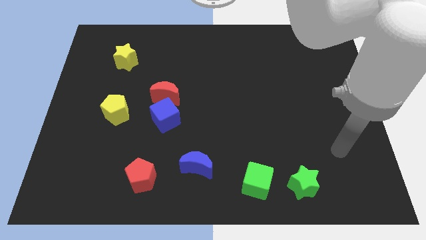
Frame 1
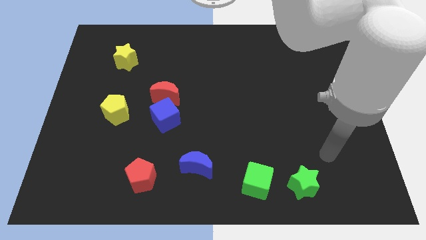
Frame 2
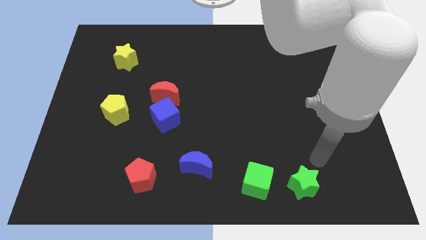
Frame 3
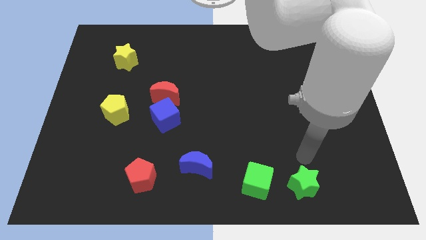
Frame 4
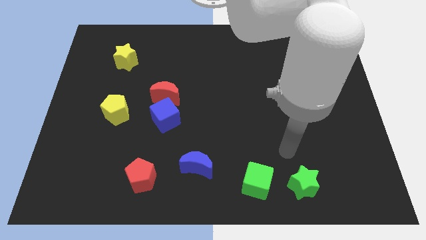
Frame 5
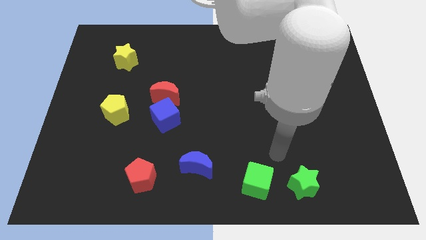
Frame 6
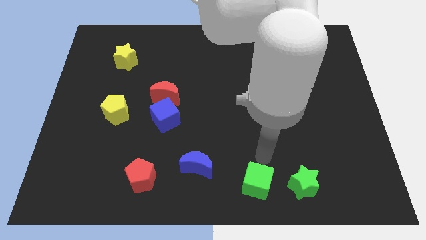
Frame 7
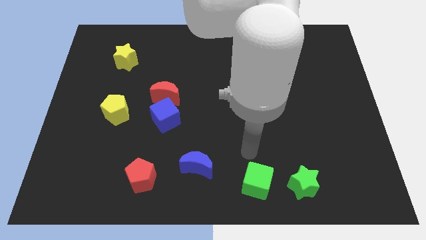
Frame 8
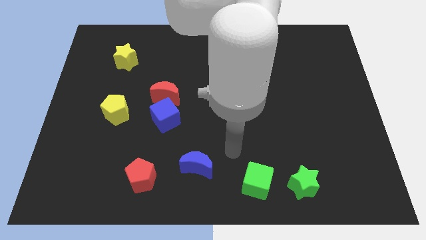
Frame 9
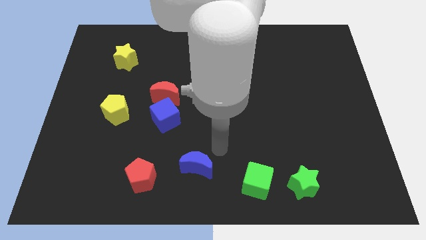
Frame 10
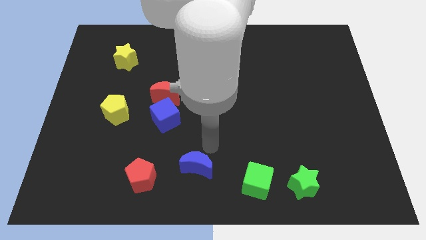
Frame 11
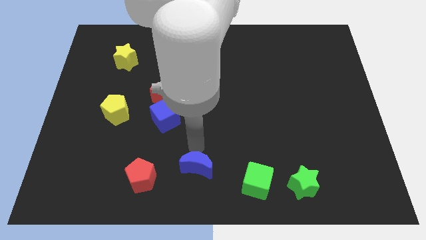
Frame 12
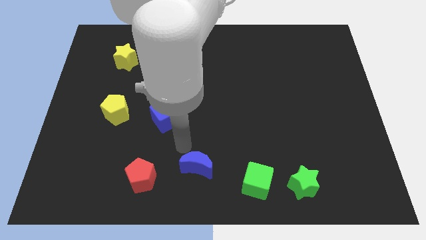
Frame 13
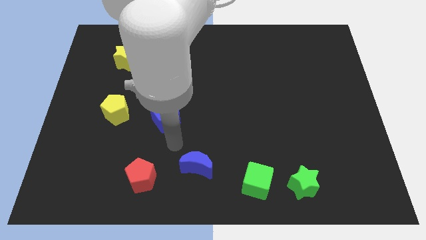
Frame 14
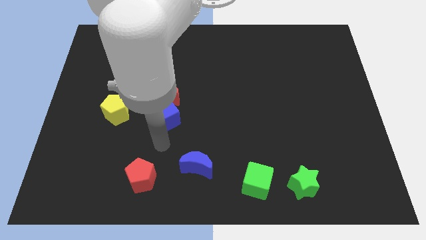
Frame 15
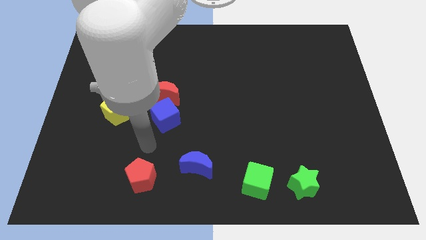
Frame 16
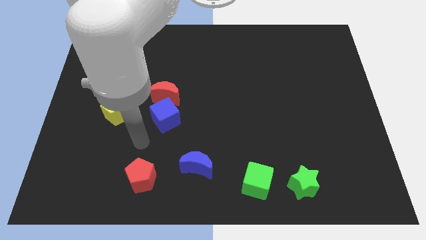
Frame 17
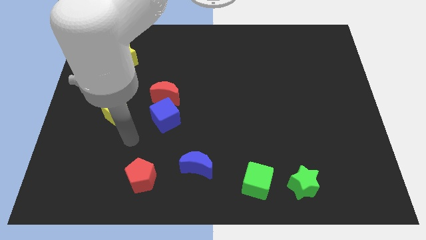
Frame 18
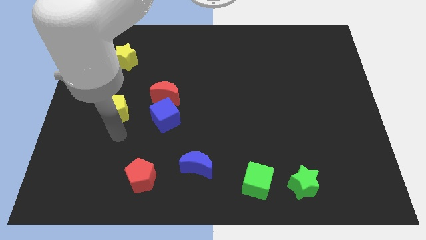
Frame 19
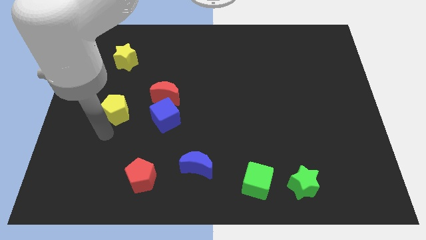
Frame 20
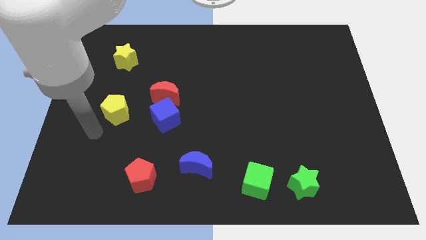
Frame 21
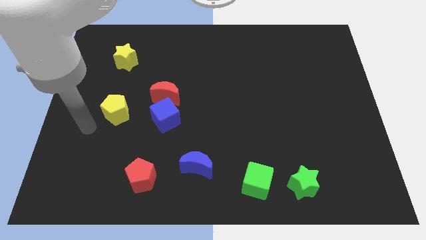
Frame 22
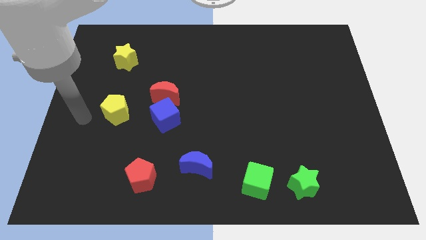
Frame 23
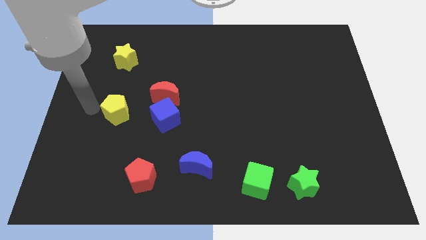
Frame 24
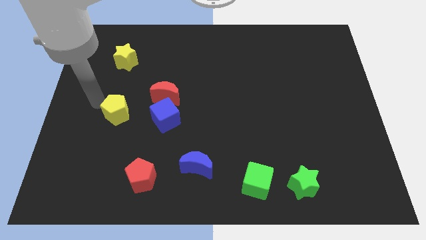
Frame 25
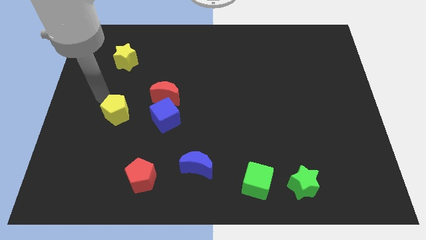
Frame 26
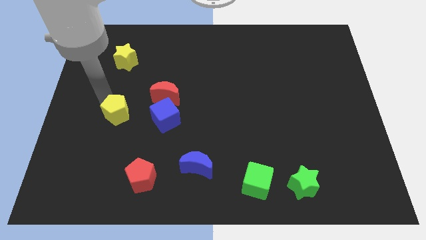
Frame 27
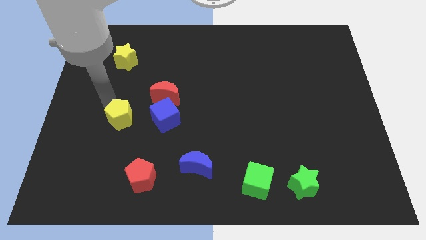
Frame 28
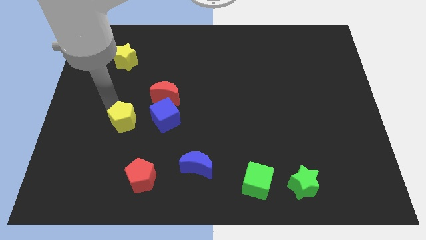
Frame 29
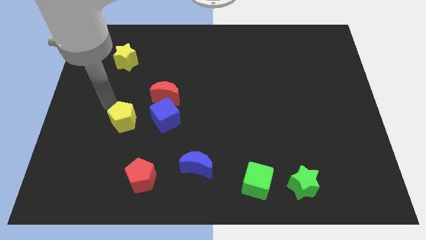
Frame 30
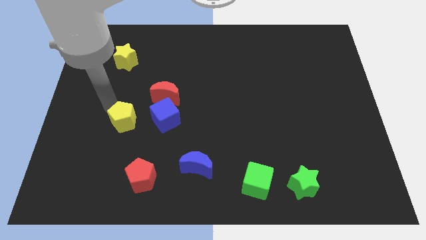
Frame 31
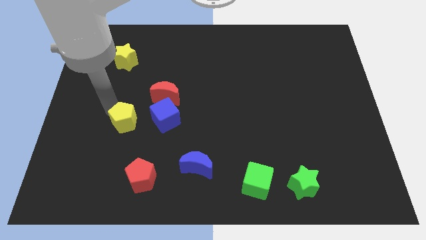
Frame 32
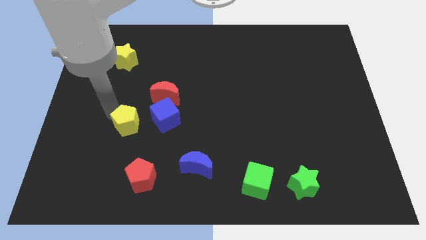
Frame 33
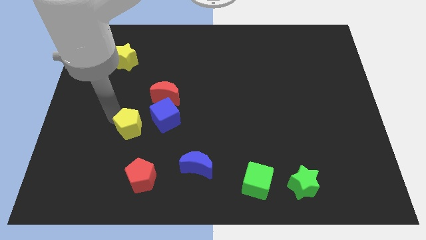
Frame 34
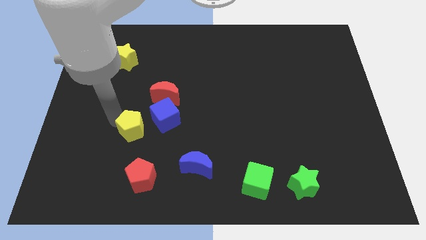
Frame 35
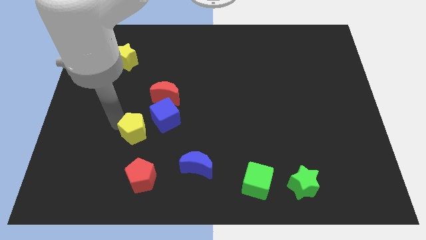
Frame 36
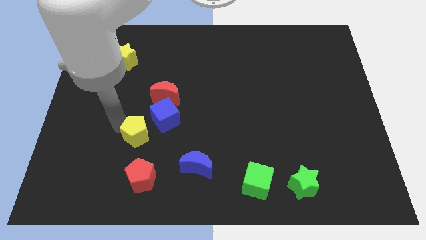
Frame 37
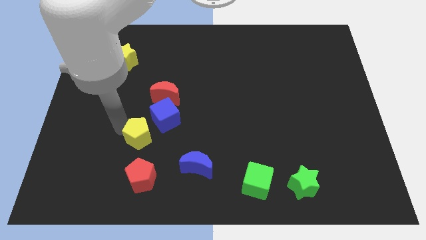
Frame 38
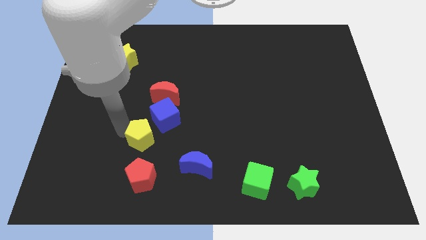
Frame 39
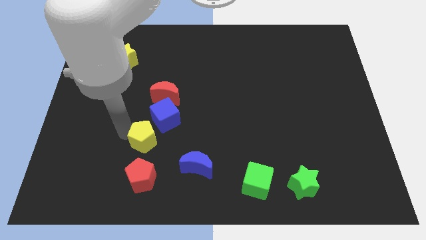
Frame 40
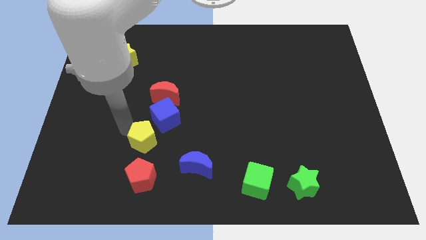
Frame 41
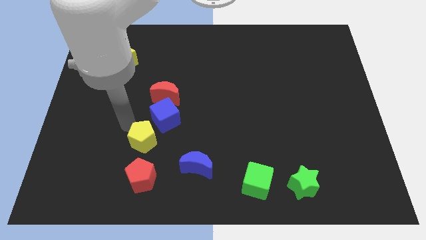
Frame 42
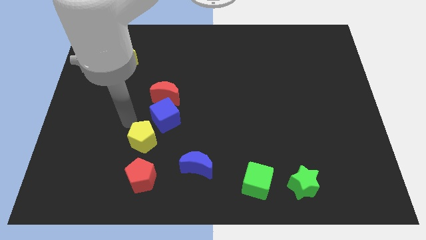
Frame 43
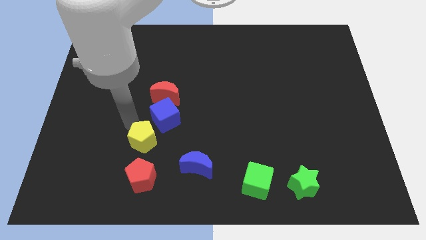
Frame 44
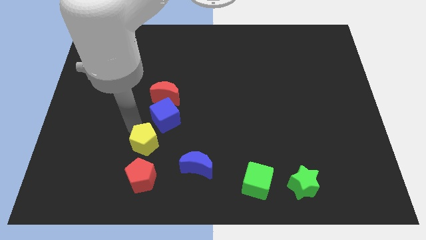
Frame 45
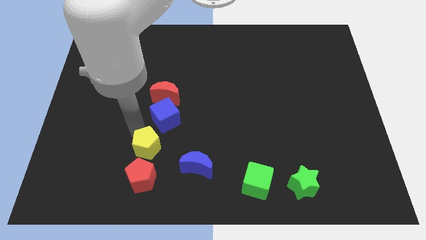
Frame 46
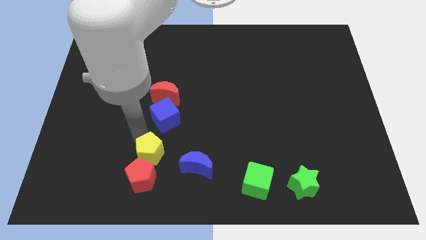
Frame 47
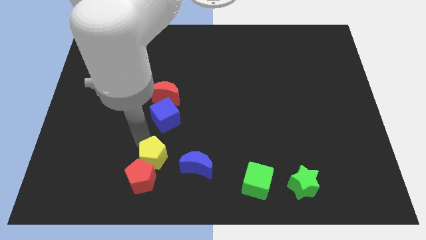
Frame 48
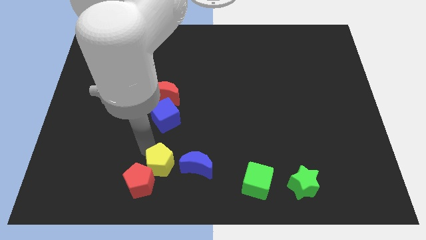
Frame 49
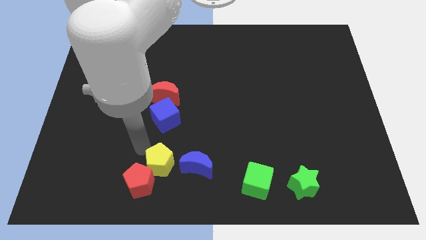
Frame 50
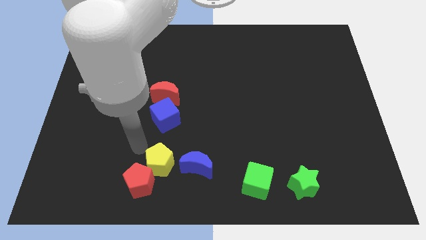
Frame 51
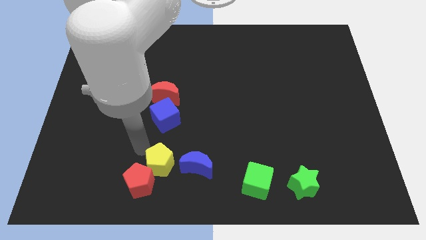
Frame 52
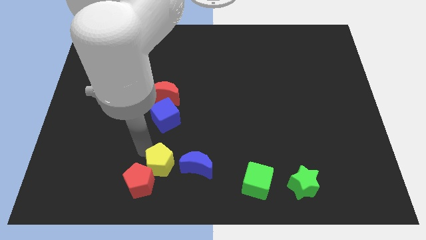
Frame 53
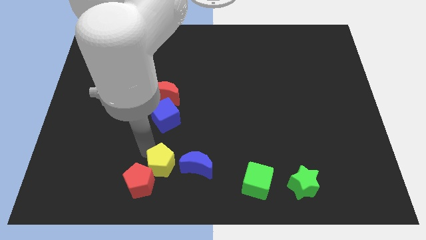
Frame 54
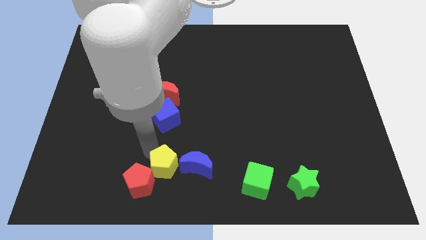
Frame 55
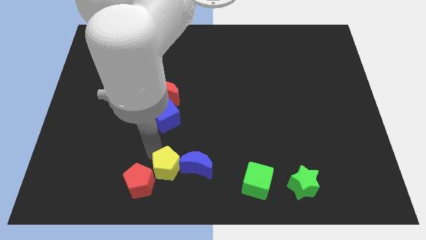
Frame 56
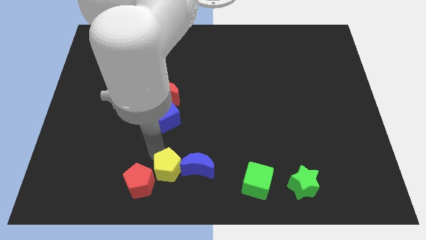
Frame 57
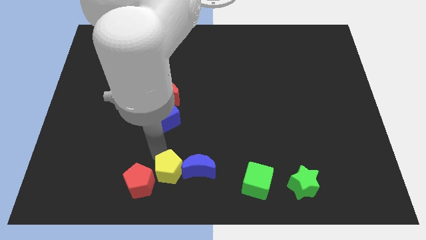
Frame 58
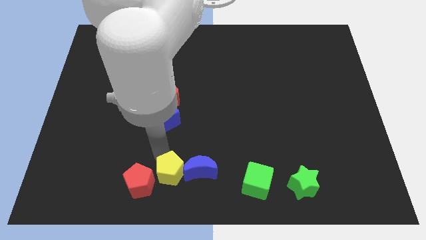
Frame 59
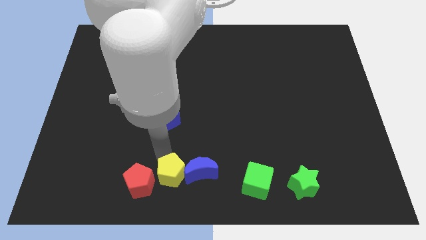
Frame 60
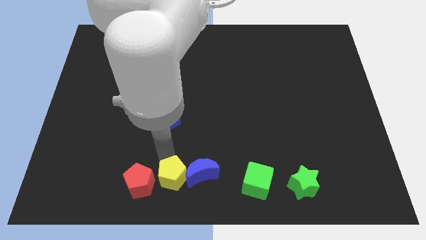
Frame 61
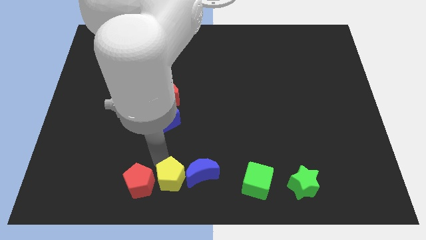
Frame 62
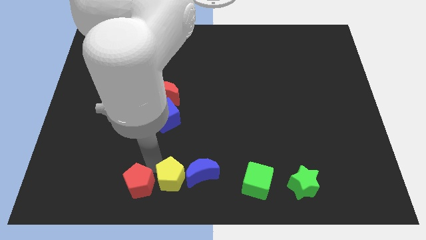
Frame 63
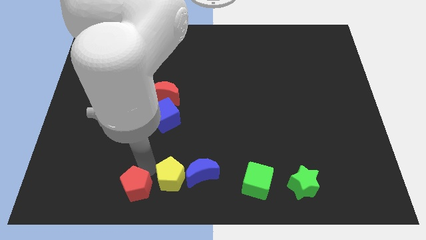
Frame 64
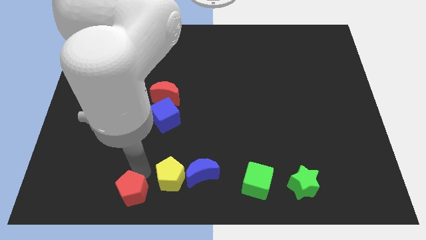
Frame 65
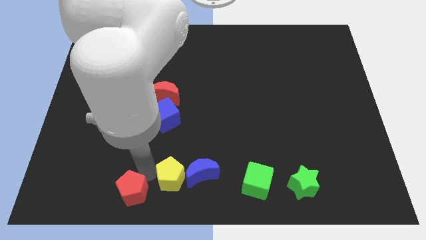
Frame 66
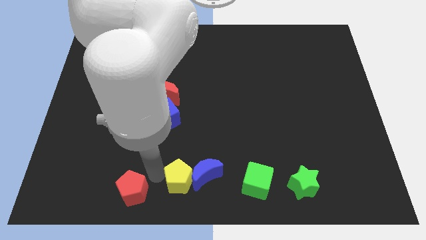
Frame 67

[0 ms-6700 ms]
slide the yellow pentagon just left of the green cube
